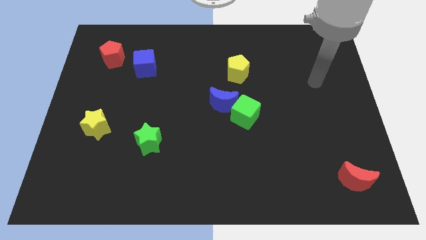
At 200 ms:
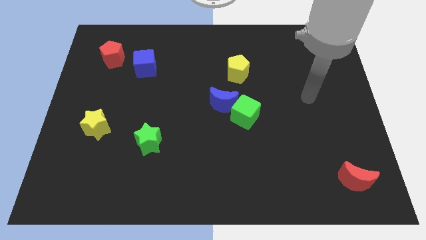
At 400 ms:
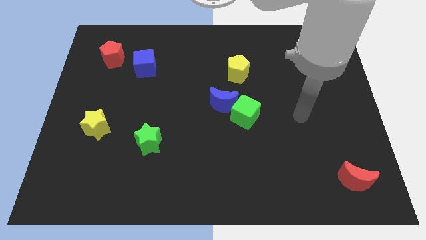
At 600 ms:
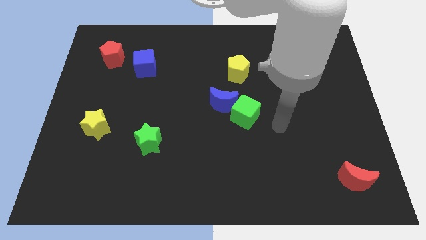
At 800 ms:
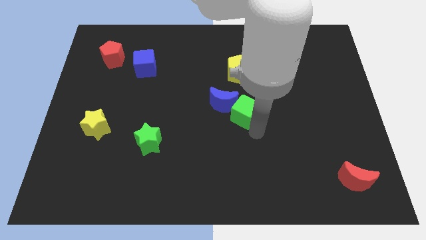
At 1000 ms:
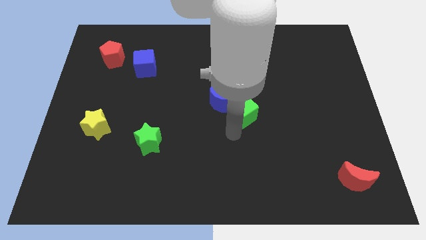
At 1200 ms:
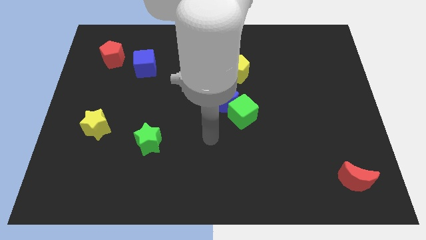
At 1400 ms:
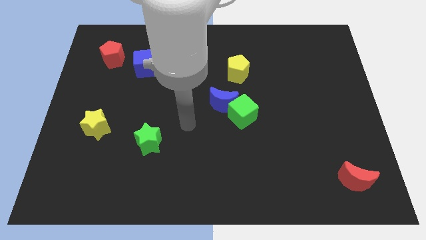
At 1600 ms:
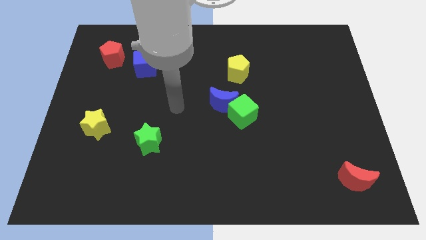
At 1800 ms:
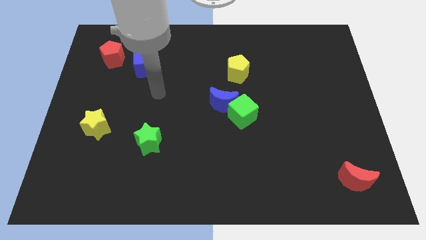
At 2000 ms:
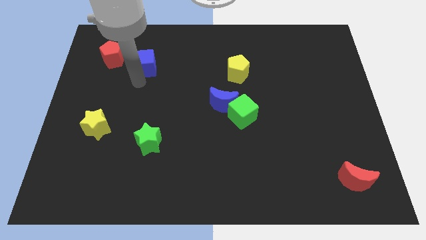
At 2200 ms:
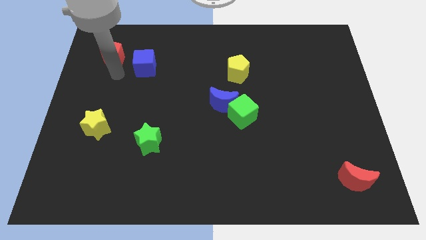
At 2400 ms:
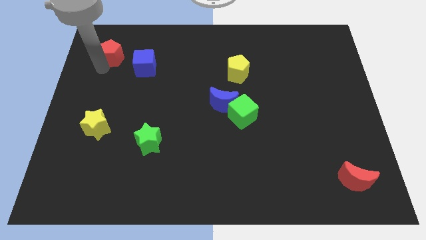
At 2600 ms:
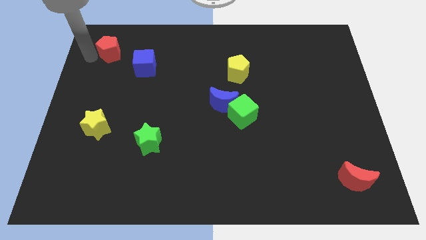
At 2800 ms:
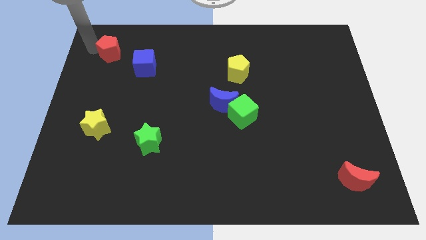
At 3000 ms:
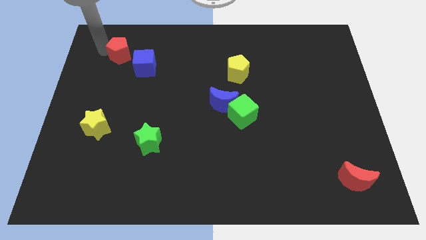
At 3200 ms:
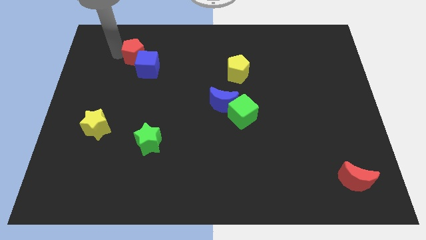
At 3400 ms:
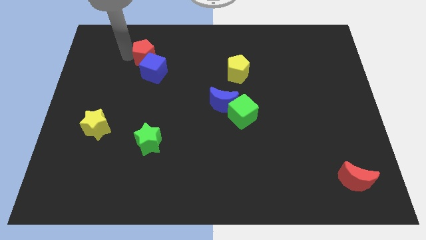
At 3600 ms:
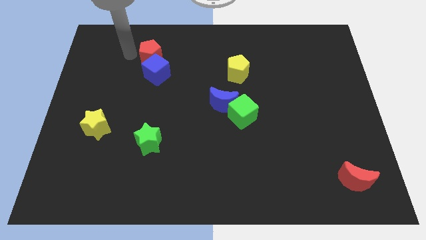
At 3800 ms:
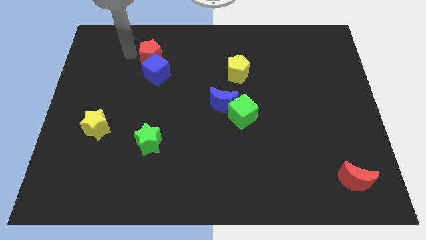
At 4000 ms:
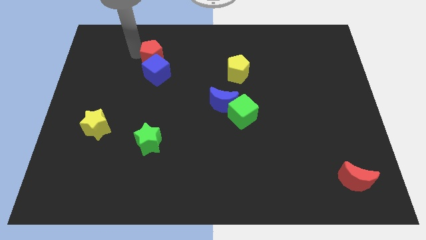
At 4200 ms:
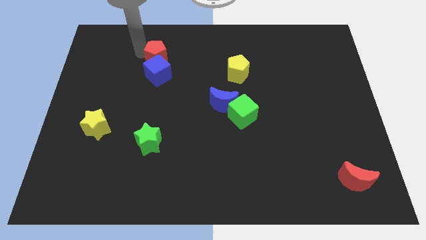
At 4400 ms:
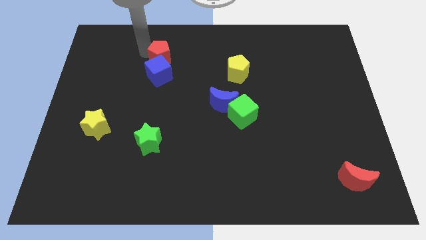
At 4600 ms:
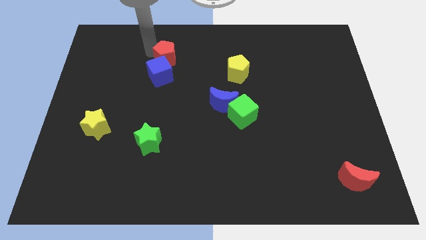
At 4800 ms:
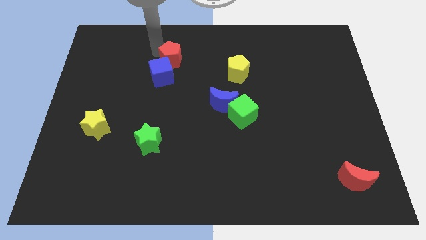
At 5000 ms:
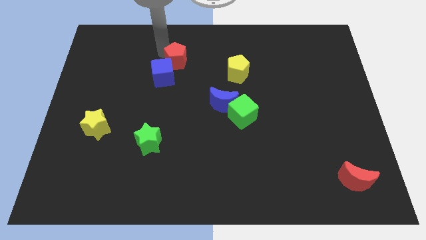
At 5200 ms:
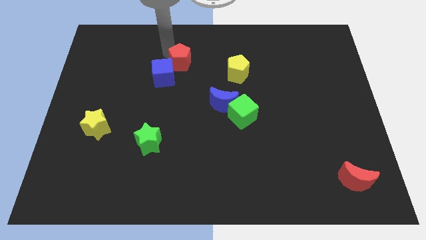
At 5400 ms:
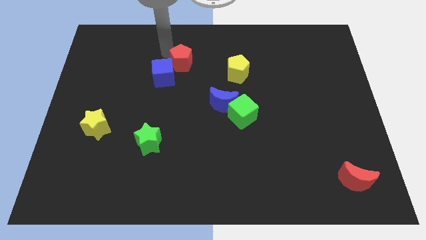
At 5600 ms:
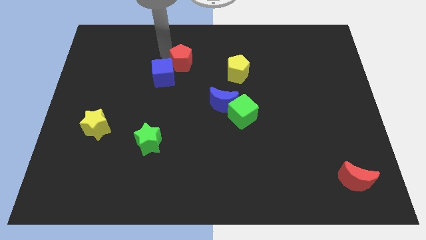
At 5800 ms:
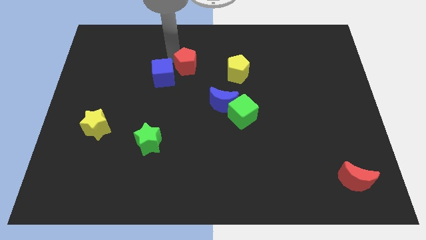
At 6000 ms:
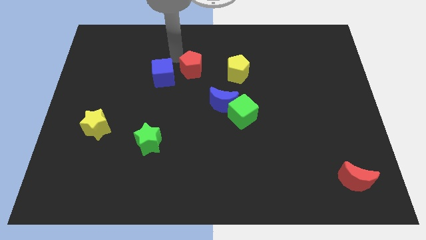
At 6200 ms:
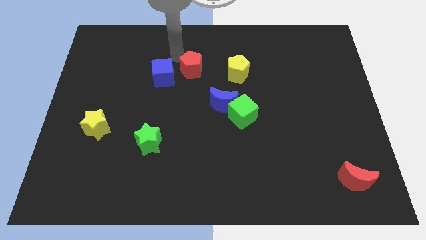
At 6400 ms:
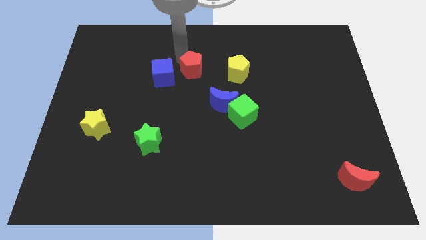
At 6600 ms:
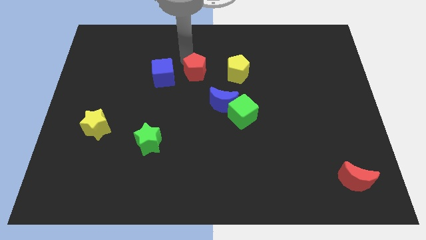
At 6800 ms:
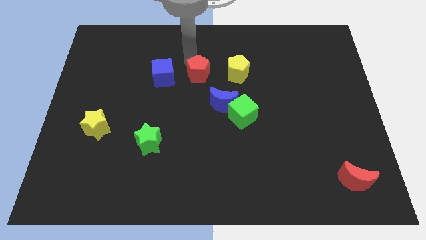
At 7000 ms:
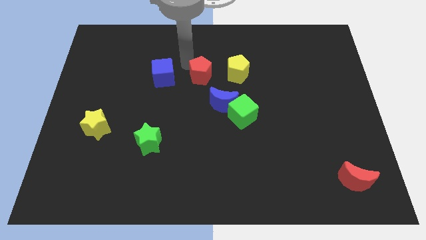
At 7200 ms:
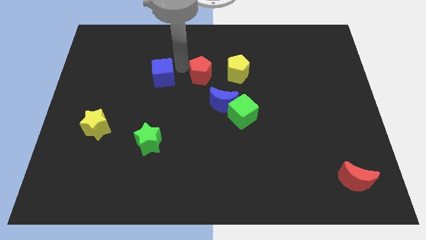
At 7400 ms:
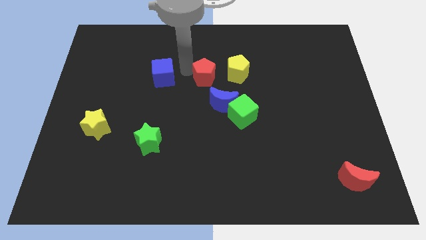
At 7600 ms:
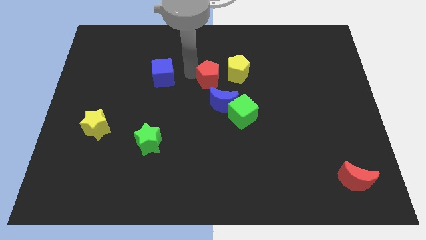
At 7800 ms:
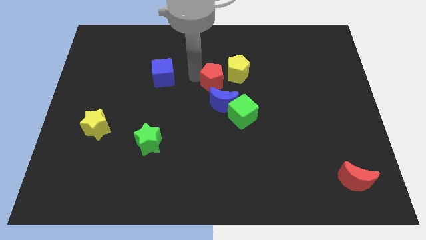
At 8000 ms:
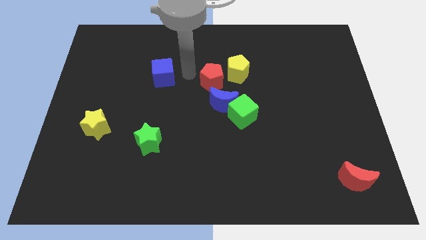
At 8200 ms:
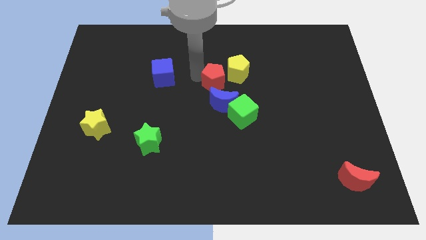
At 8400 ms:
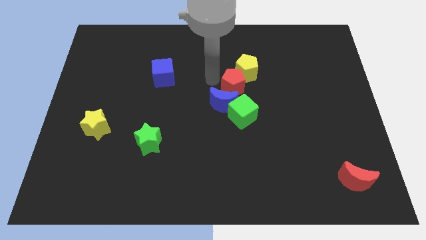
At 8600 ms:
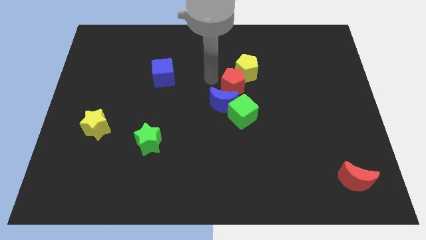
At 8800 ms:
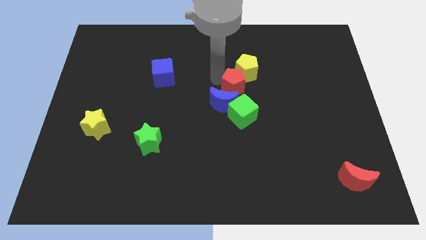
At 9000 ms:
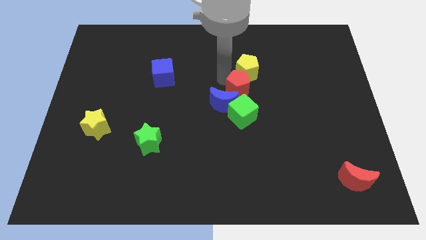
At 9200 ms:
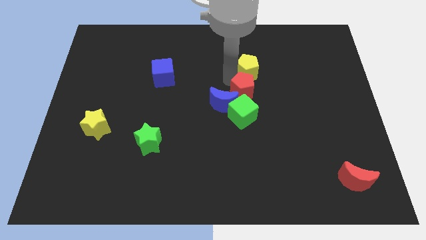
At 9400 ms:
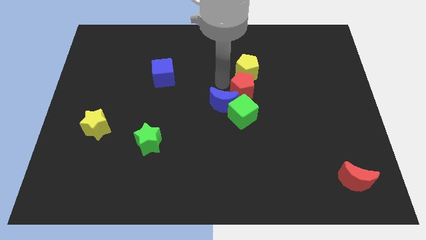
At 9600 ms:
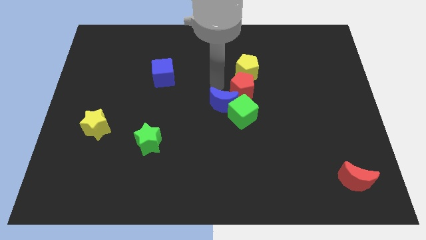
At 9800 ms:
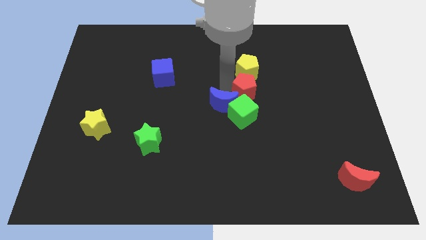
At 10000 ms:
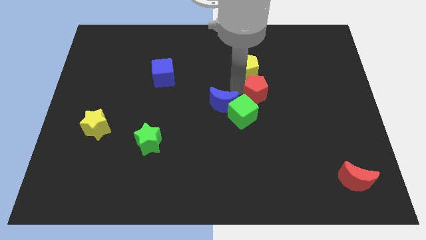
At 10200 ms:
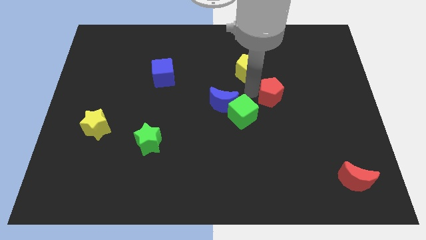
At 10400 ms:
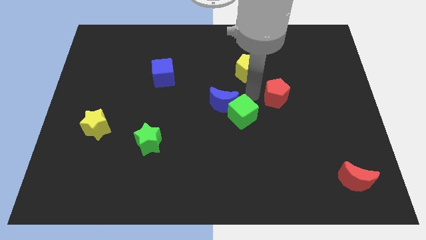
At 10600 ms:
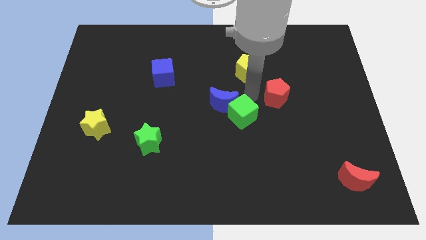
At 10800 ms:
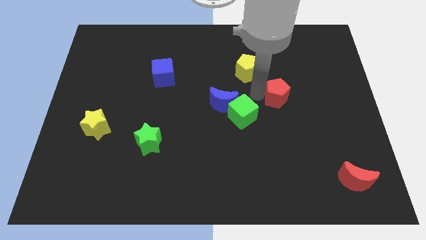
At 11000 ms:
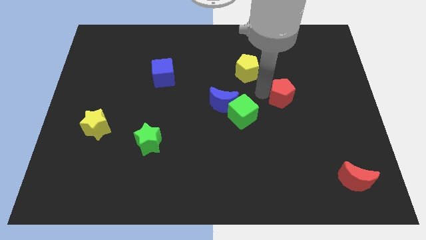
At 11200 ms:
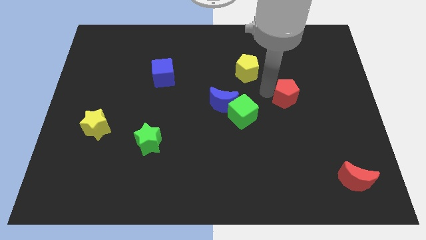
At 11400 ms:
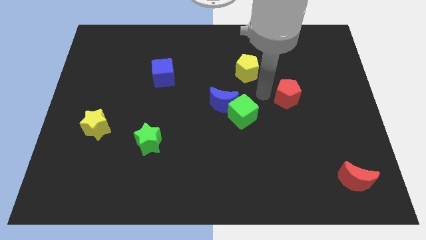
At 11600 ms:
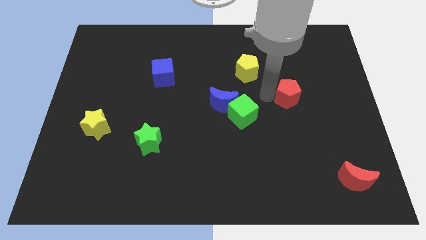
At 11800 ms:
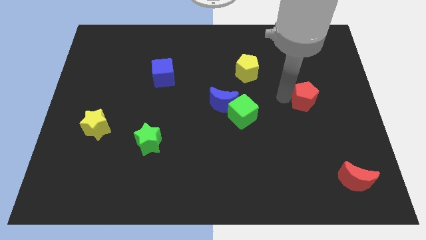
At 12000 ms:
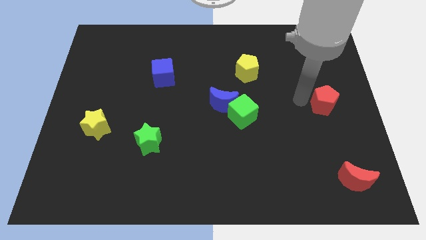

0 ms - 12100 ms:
put the red pentagon to the right side
